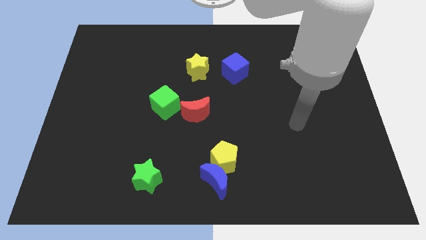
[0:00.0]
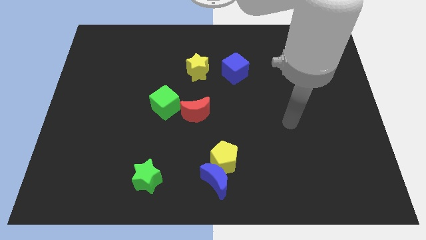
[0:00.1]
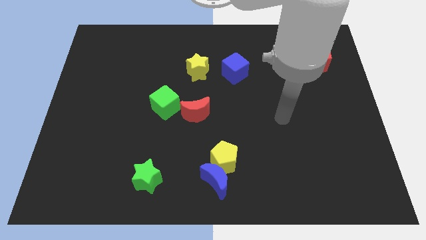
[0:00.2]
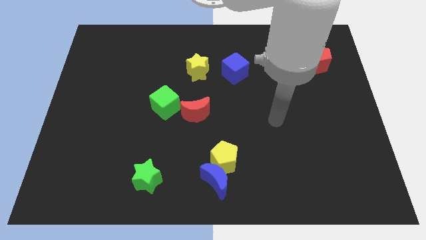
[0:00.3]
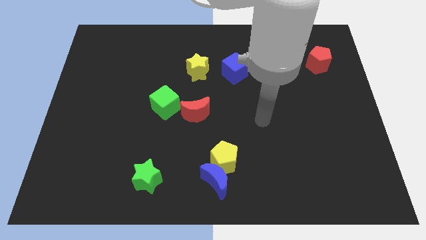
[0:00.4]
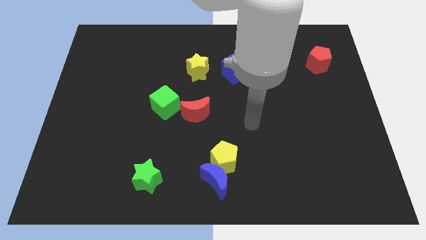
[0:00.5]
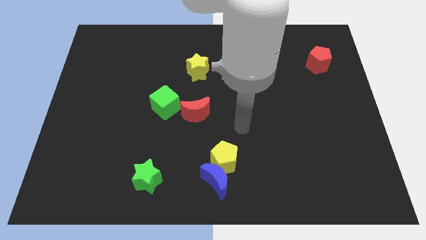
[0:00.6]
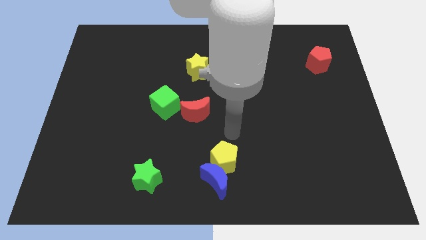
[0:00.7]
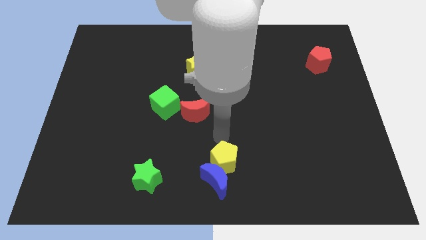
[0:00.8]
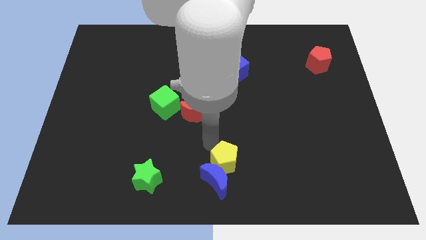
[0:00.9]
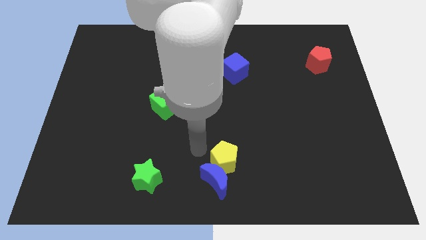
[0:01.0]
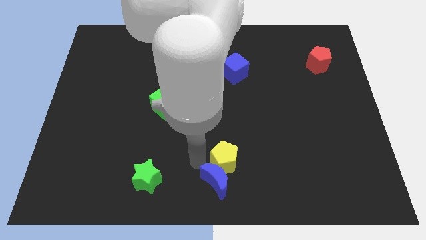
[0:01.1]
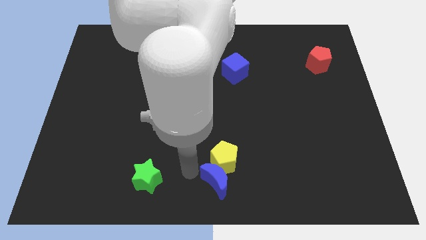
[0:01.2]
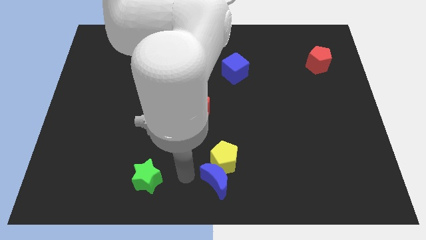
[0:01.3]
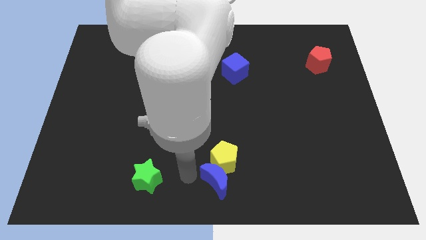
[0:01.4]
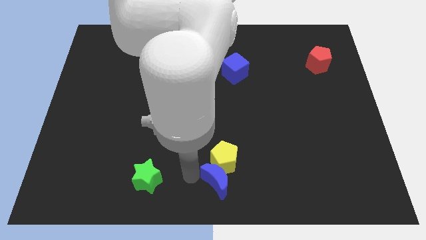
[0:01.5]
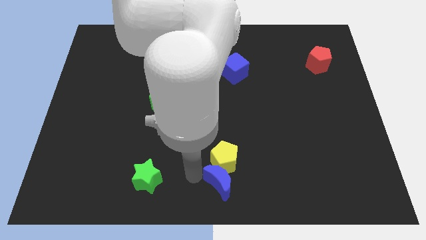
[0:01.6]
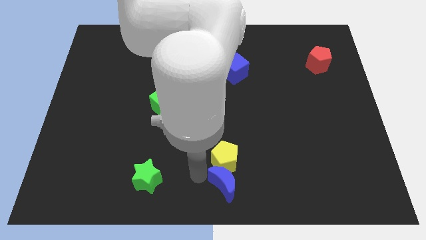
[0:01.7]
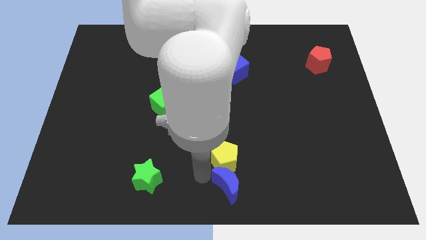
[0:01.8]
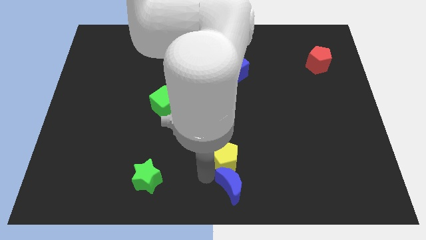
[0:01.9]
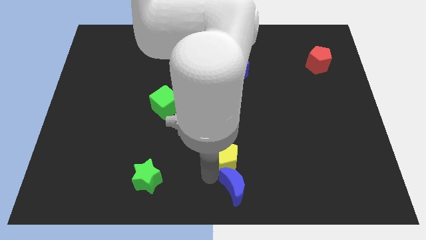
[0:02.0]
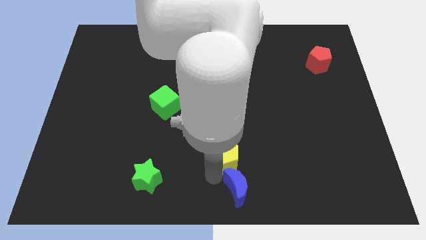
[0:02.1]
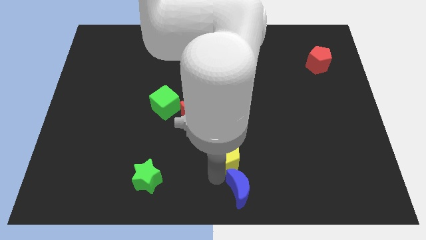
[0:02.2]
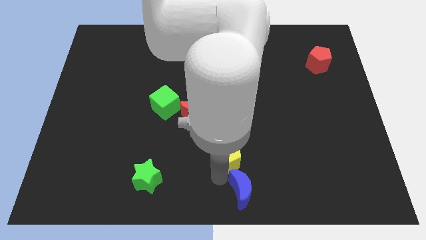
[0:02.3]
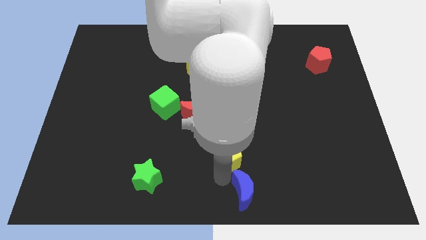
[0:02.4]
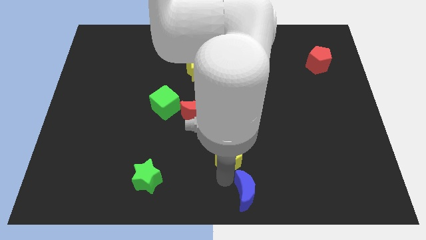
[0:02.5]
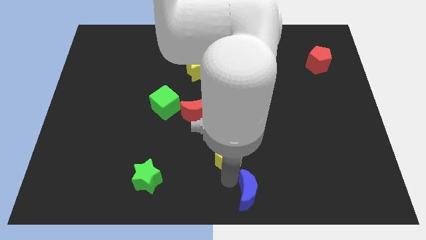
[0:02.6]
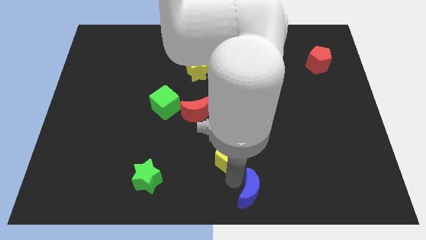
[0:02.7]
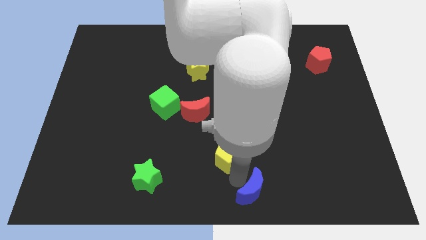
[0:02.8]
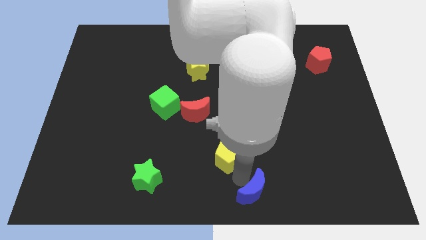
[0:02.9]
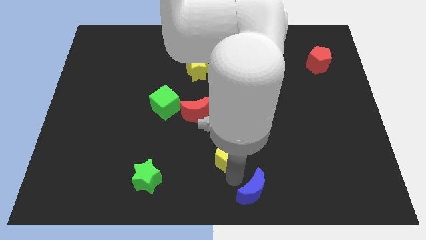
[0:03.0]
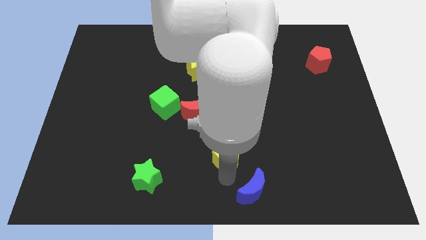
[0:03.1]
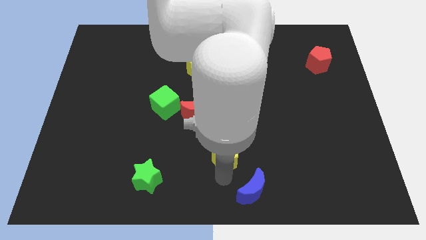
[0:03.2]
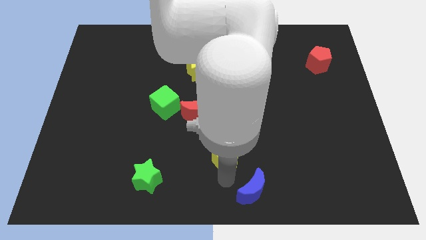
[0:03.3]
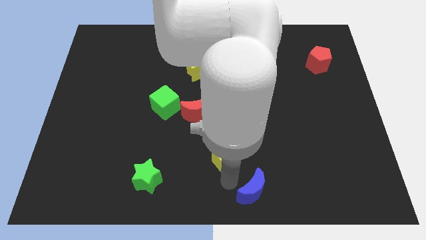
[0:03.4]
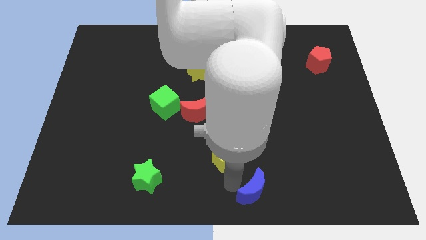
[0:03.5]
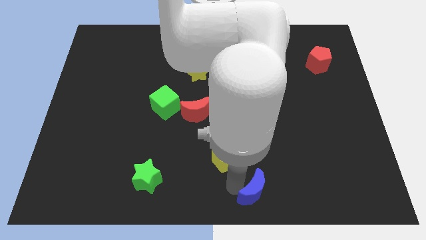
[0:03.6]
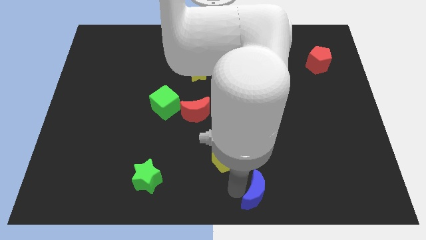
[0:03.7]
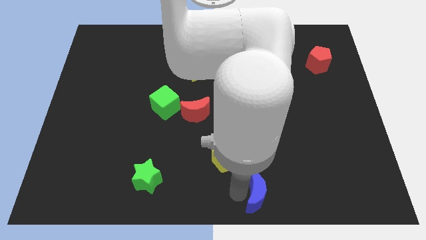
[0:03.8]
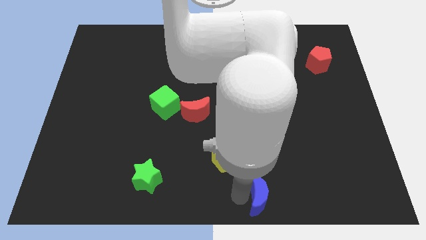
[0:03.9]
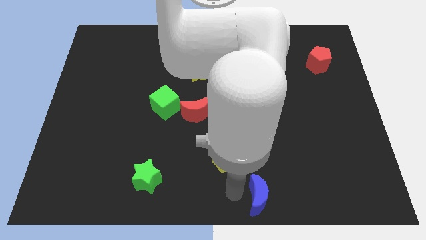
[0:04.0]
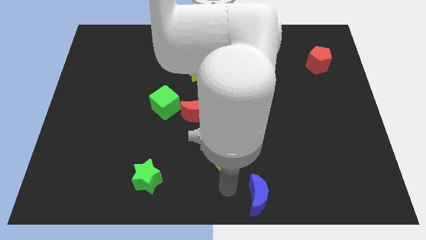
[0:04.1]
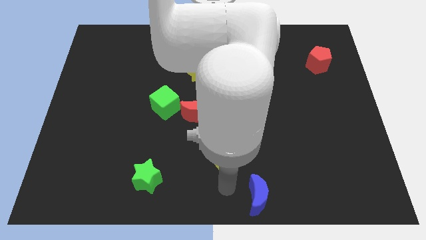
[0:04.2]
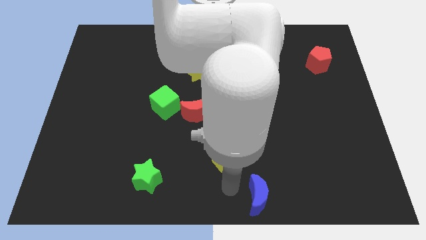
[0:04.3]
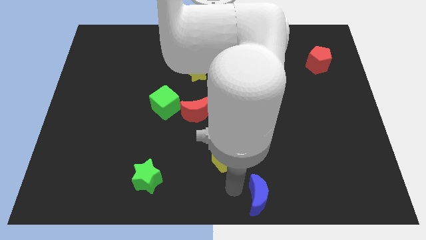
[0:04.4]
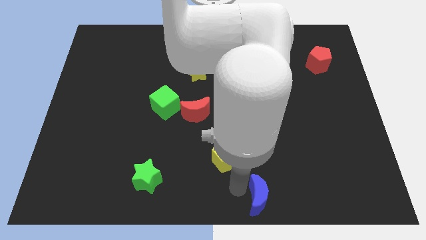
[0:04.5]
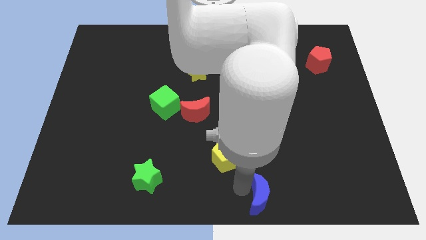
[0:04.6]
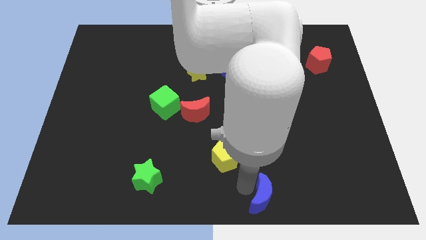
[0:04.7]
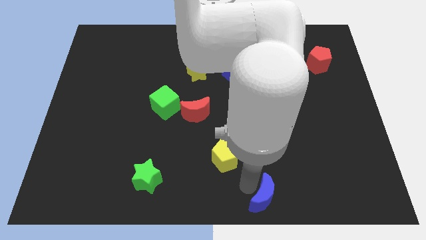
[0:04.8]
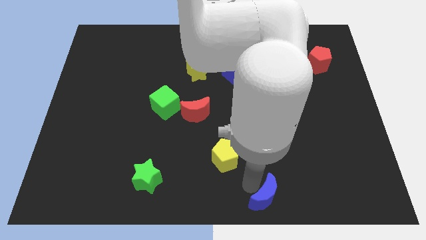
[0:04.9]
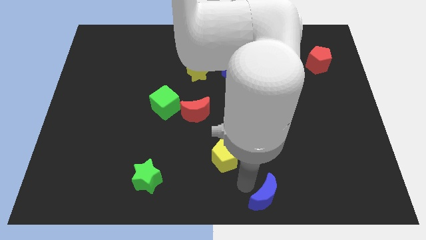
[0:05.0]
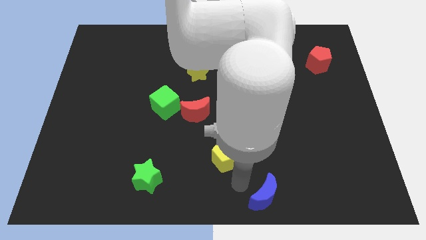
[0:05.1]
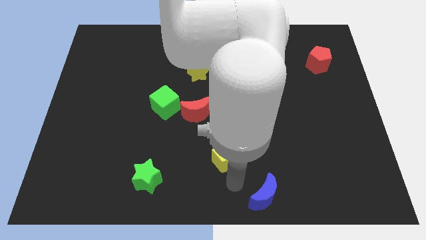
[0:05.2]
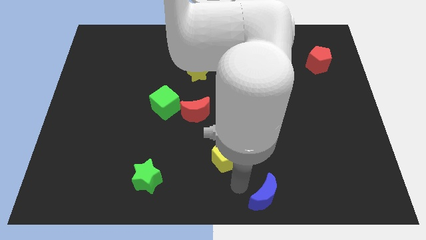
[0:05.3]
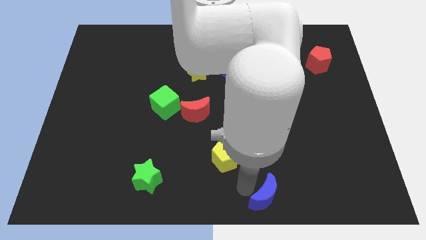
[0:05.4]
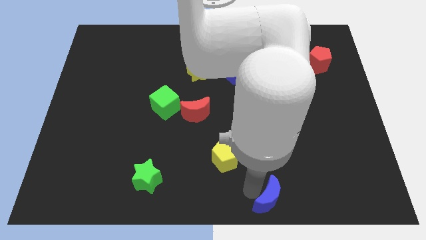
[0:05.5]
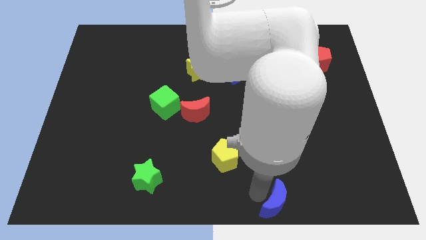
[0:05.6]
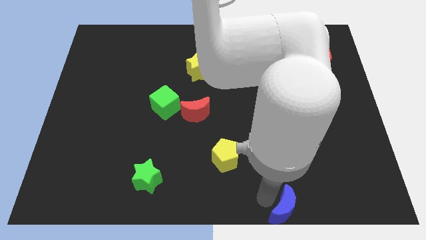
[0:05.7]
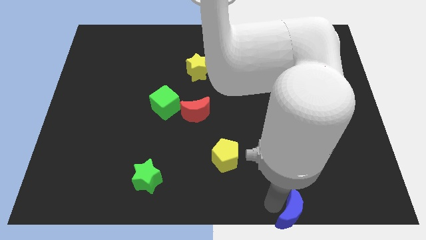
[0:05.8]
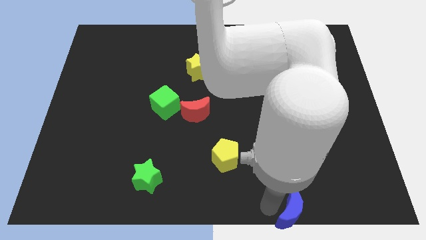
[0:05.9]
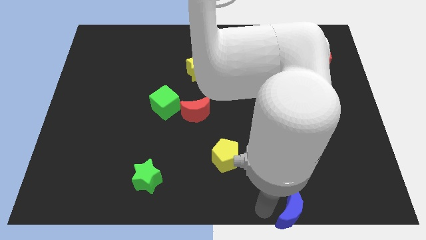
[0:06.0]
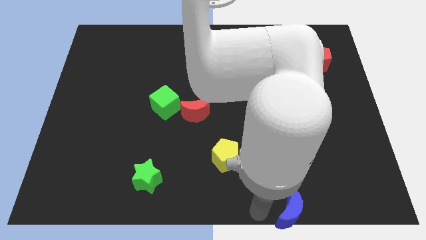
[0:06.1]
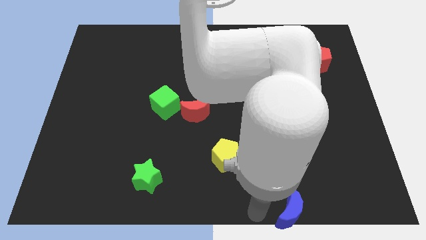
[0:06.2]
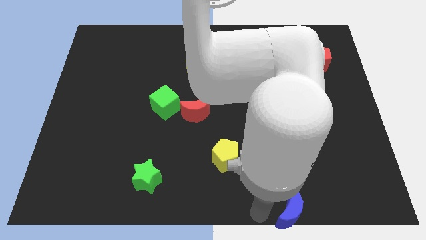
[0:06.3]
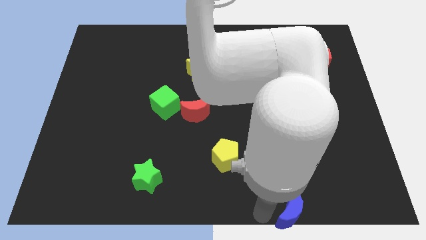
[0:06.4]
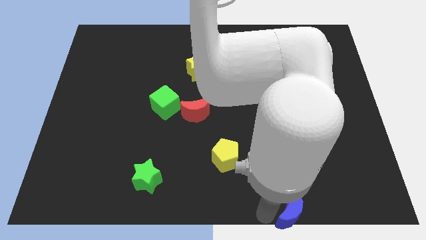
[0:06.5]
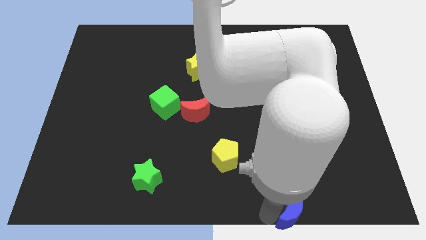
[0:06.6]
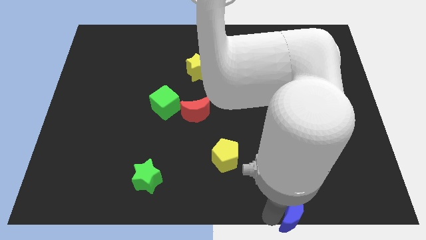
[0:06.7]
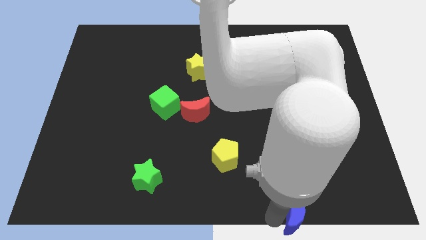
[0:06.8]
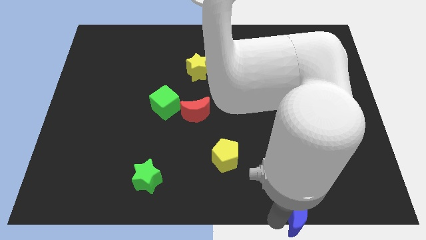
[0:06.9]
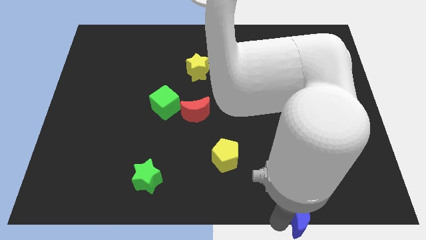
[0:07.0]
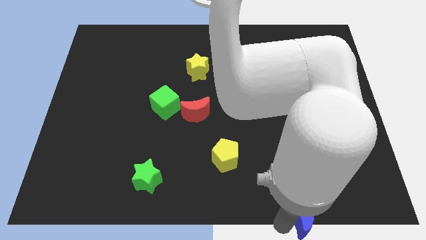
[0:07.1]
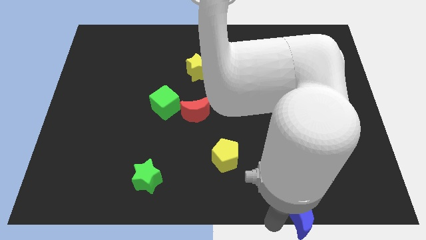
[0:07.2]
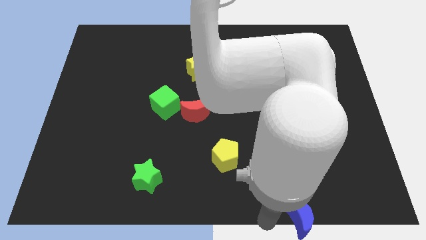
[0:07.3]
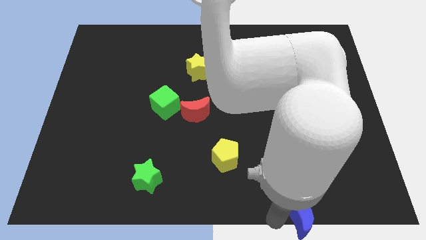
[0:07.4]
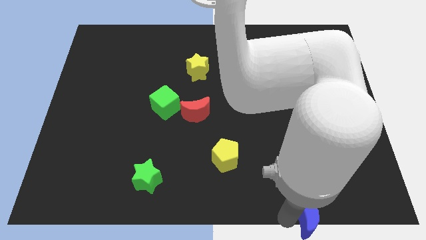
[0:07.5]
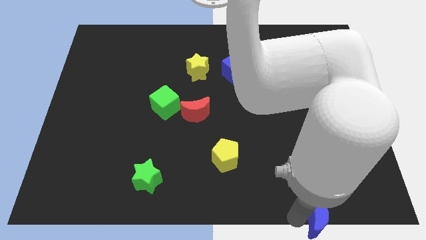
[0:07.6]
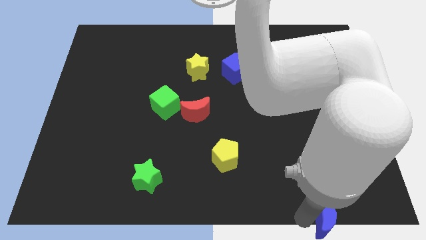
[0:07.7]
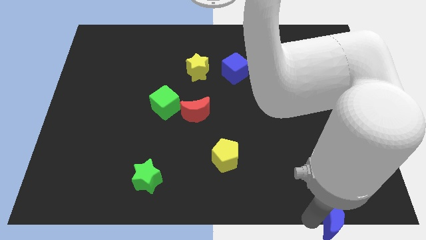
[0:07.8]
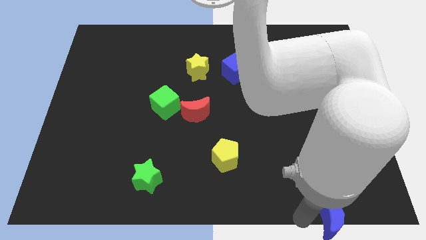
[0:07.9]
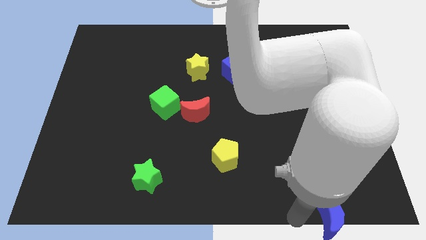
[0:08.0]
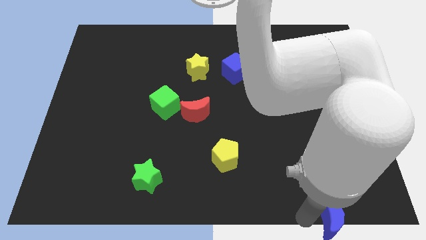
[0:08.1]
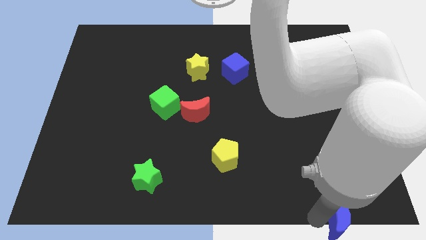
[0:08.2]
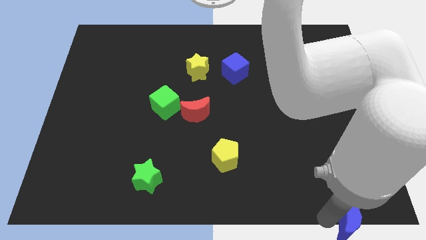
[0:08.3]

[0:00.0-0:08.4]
move the blue moon to the bottom right corner
